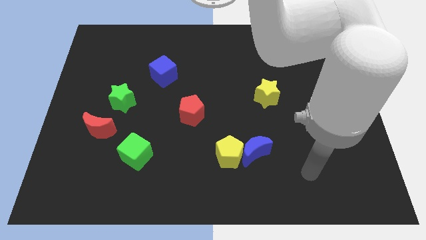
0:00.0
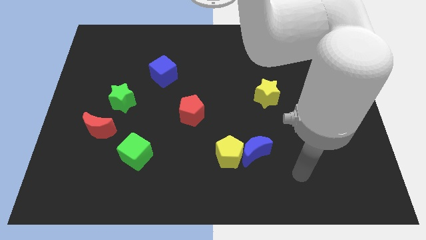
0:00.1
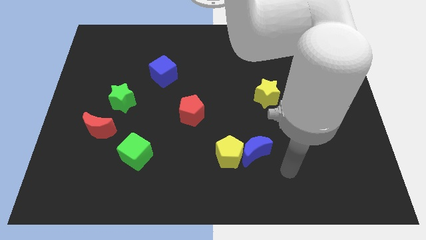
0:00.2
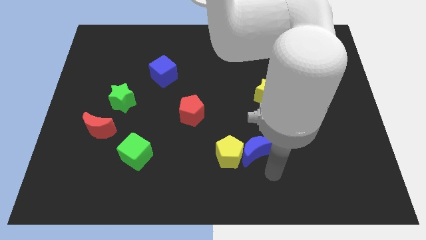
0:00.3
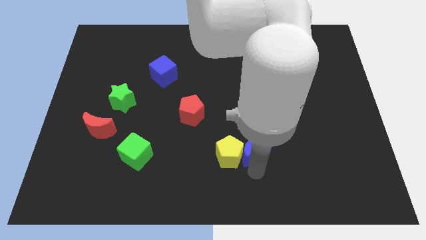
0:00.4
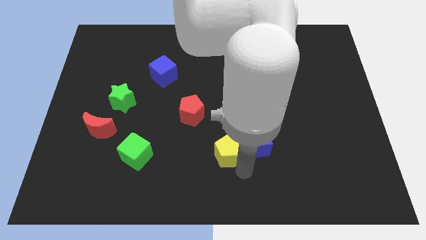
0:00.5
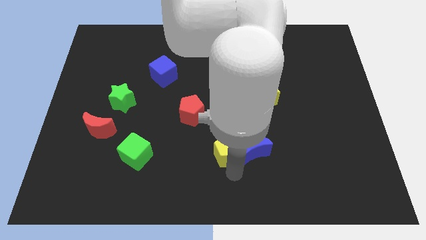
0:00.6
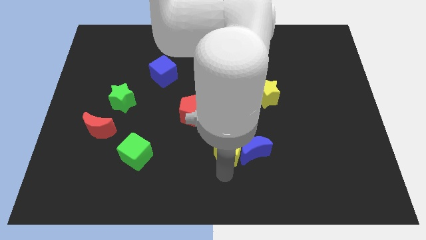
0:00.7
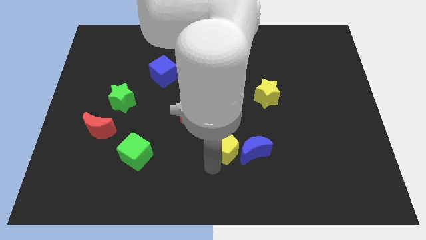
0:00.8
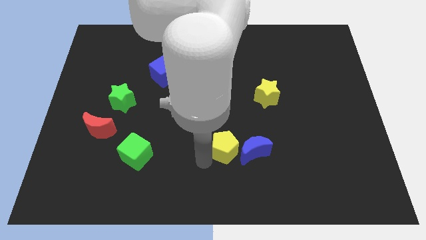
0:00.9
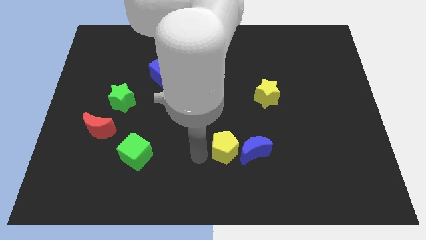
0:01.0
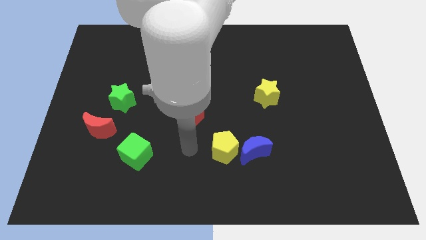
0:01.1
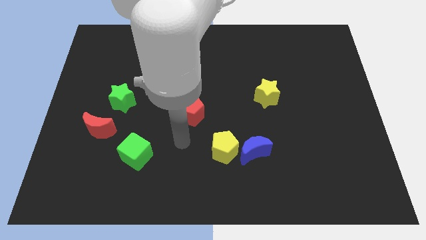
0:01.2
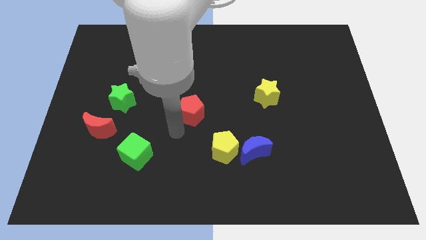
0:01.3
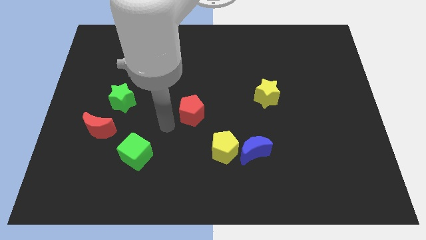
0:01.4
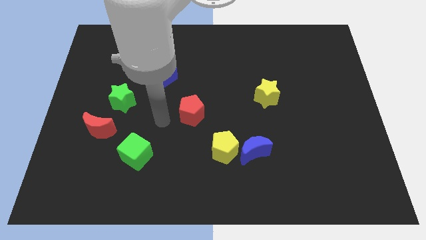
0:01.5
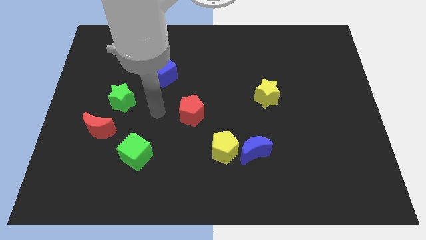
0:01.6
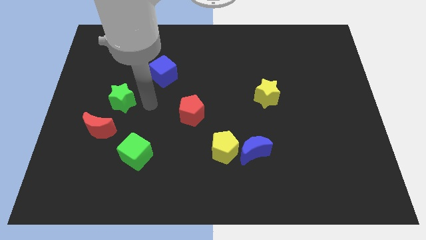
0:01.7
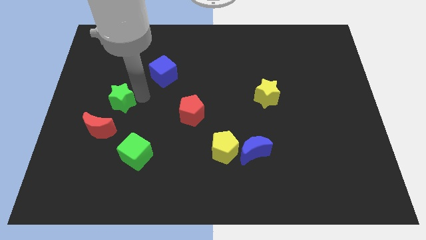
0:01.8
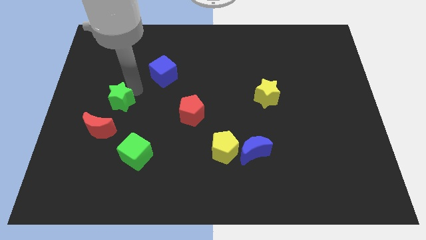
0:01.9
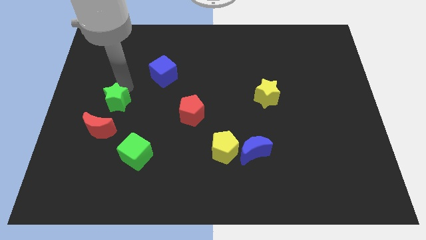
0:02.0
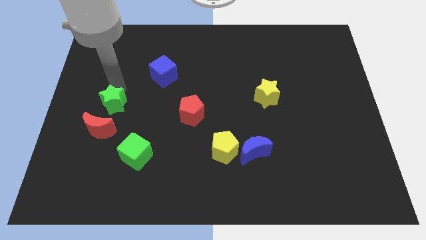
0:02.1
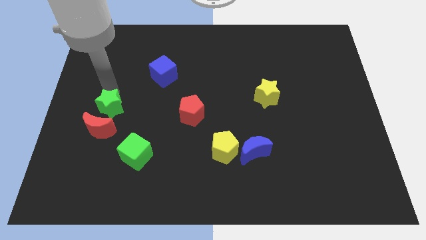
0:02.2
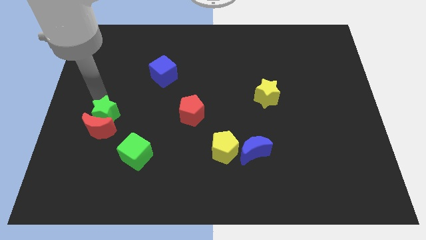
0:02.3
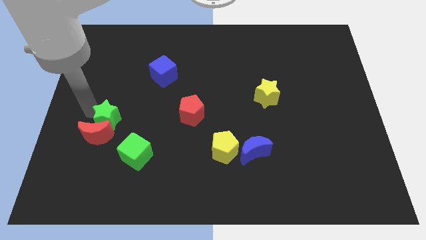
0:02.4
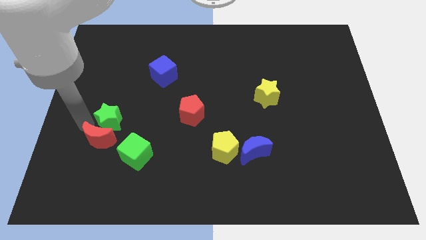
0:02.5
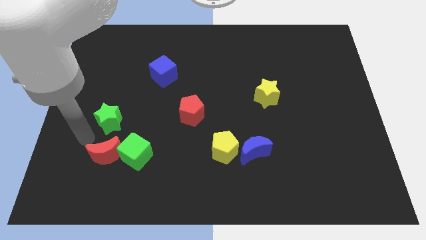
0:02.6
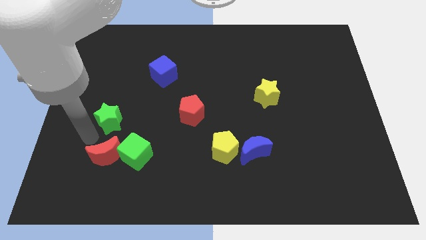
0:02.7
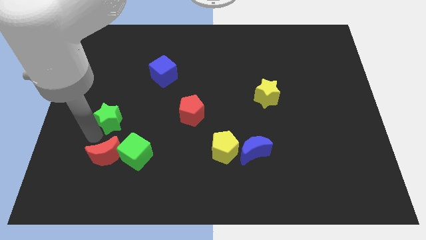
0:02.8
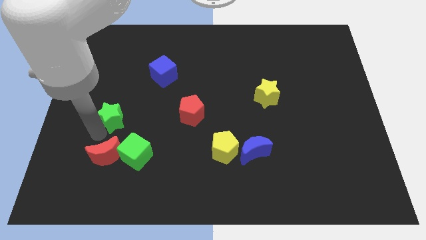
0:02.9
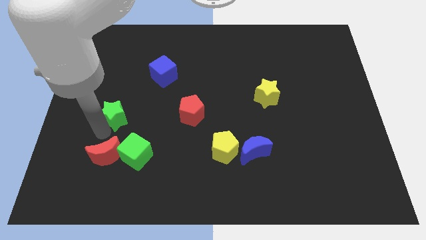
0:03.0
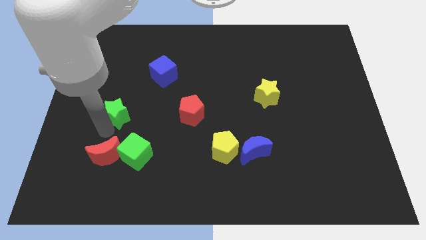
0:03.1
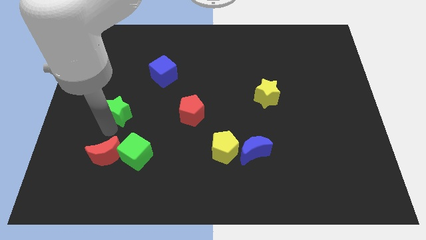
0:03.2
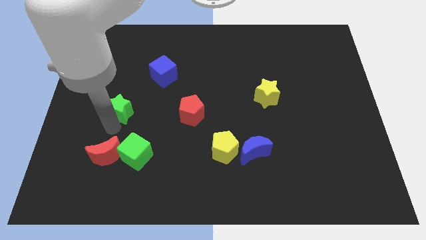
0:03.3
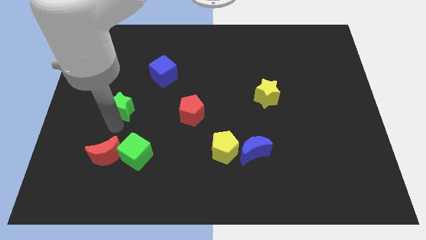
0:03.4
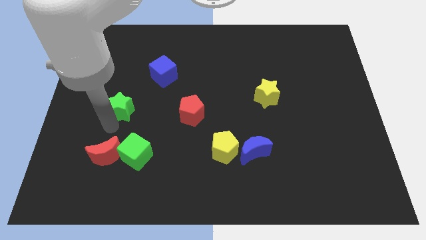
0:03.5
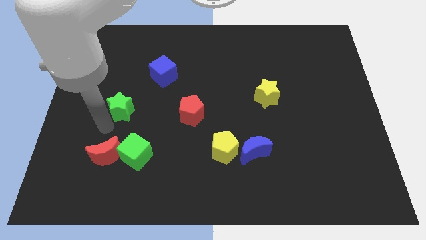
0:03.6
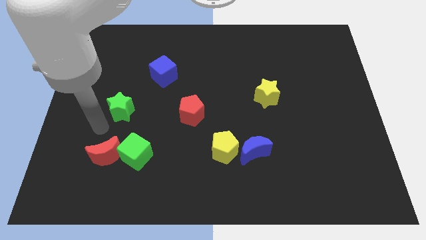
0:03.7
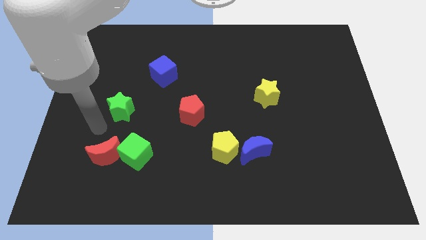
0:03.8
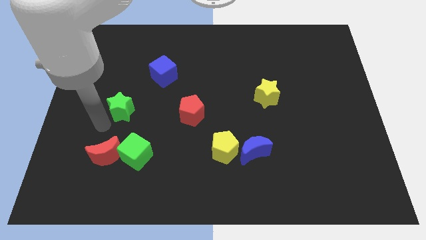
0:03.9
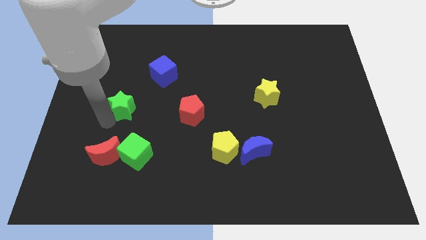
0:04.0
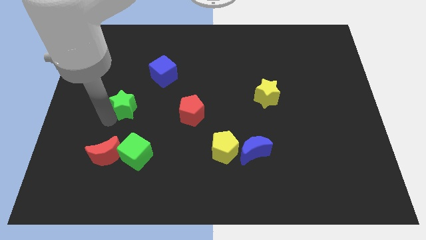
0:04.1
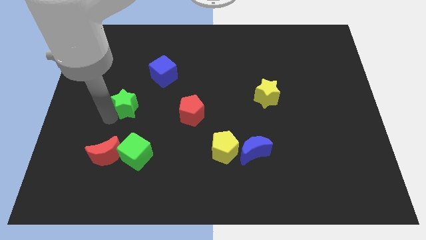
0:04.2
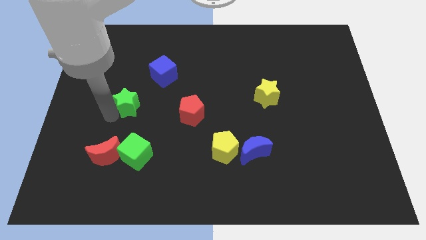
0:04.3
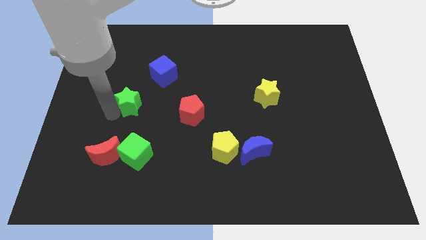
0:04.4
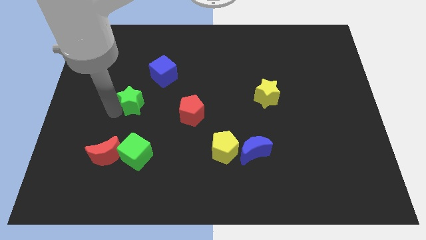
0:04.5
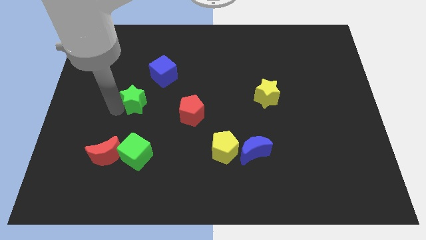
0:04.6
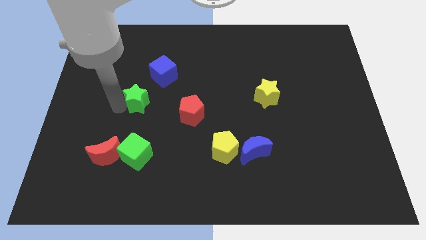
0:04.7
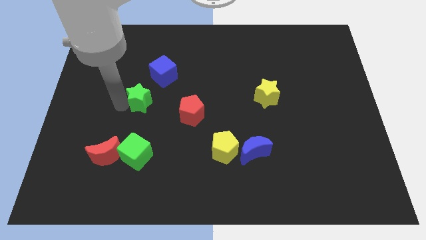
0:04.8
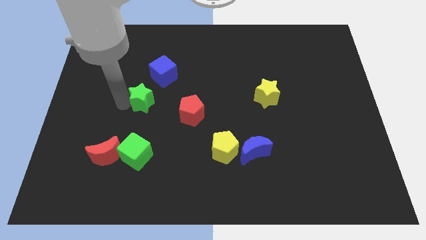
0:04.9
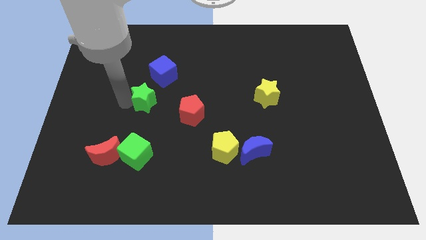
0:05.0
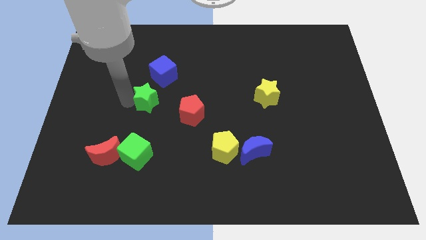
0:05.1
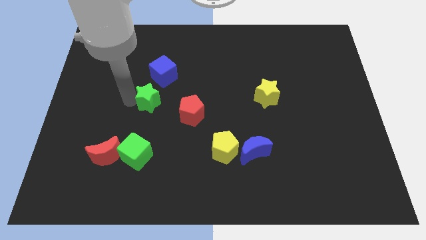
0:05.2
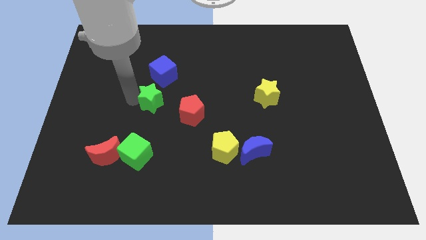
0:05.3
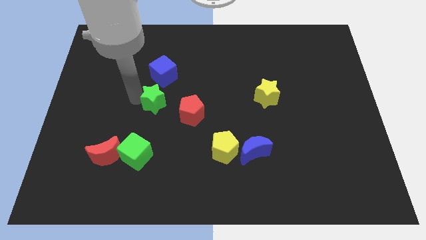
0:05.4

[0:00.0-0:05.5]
move the green star a little right

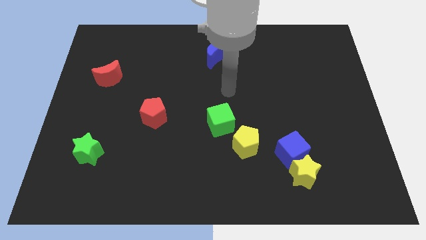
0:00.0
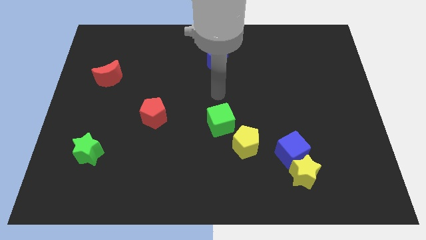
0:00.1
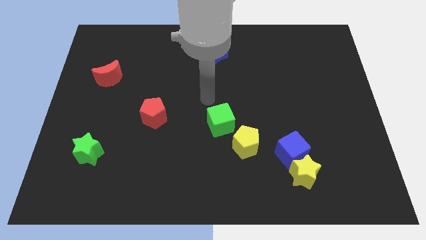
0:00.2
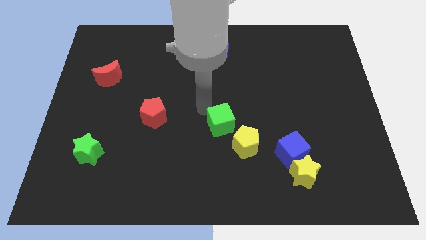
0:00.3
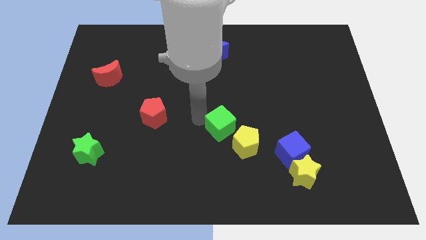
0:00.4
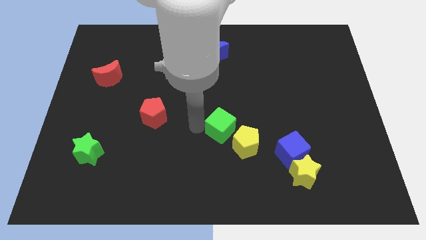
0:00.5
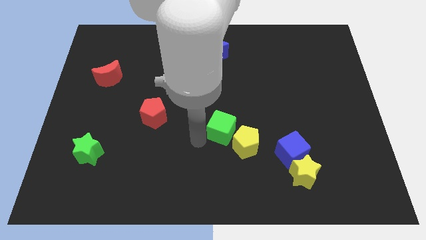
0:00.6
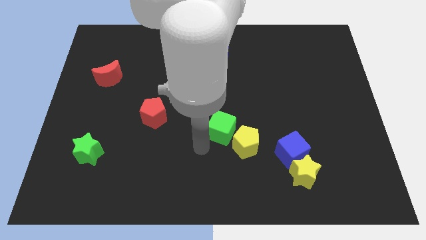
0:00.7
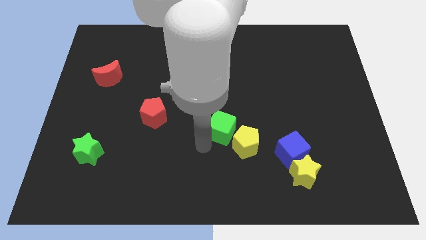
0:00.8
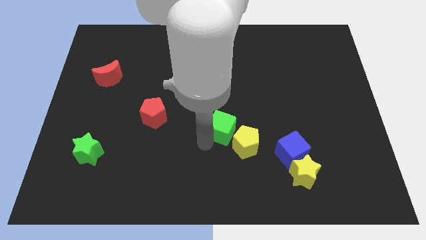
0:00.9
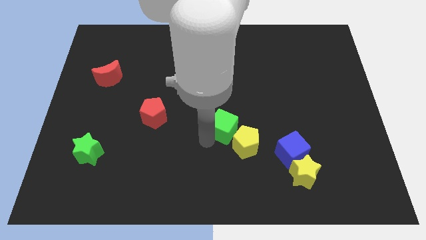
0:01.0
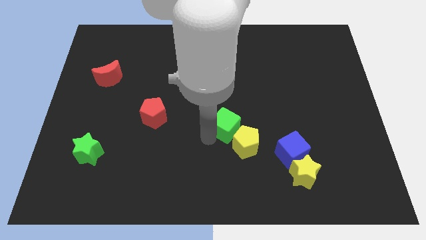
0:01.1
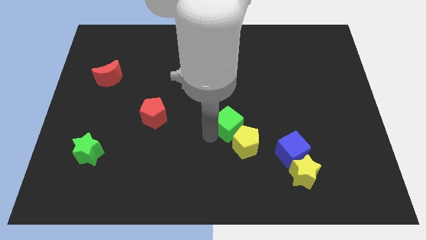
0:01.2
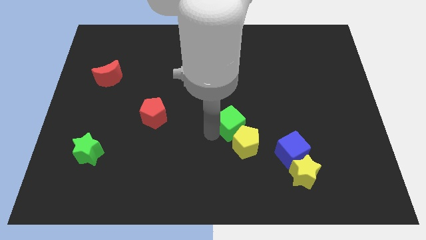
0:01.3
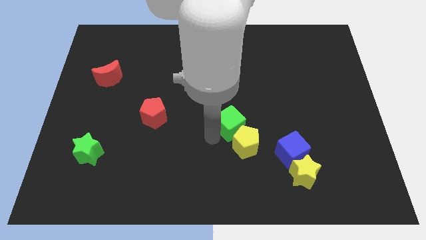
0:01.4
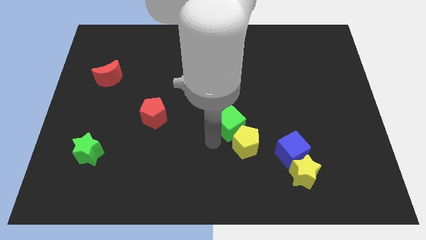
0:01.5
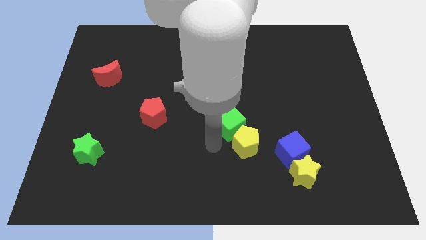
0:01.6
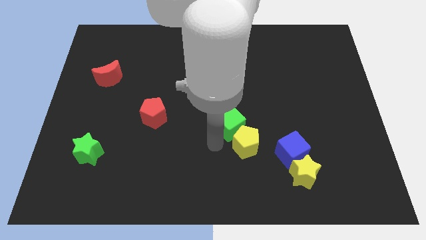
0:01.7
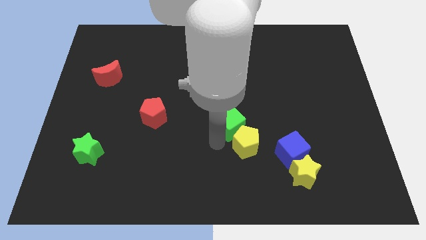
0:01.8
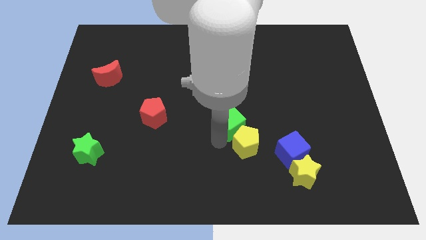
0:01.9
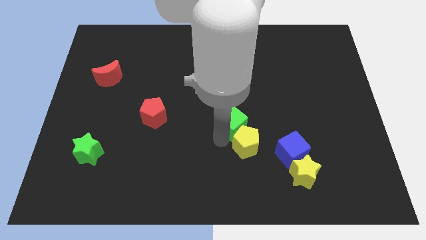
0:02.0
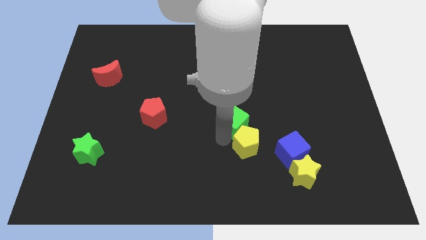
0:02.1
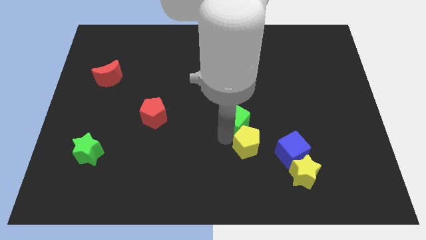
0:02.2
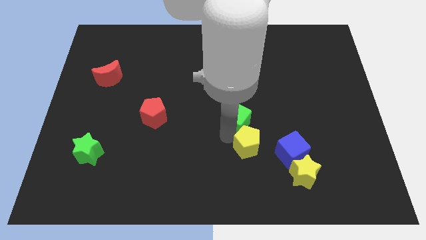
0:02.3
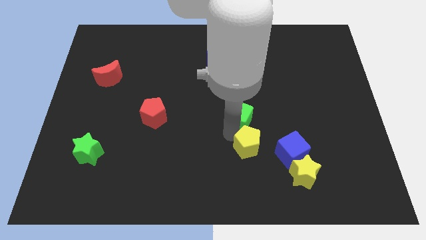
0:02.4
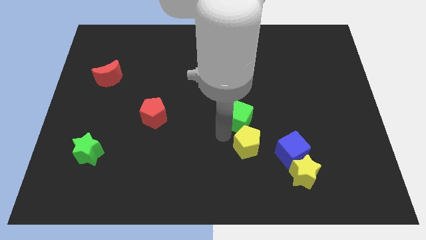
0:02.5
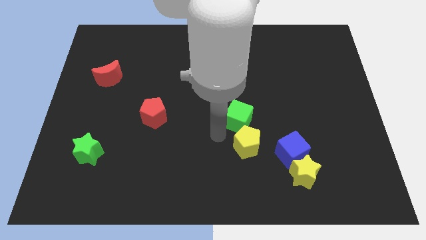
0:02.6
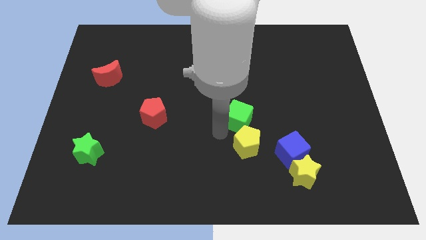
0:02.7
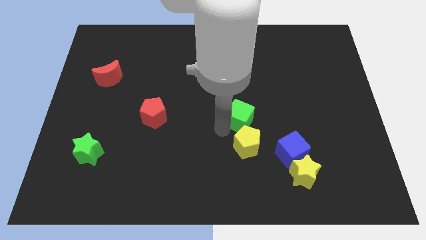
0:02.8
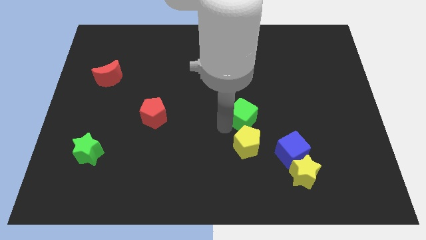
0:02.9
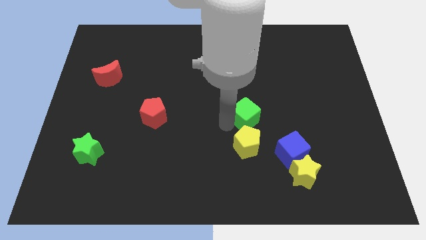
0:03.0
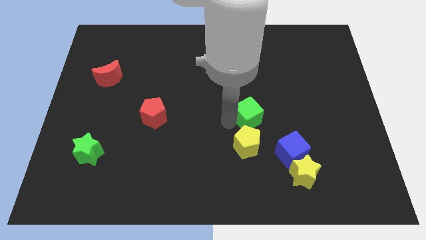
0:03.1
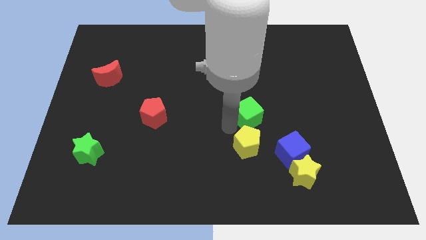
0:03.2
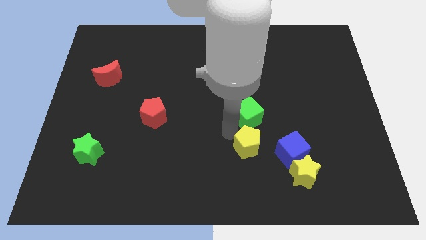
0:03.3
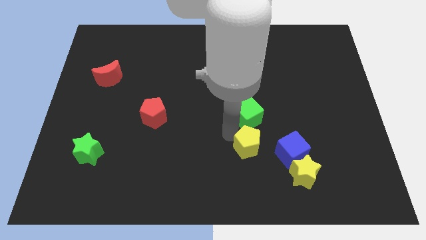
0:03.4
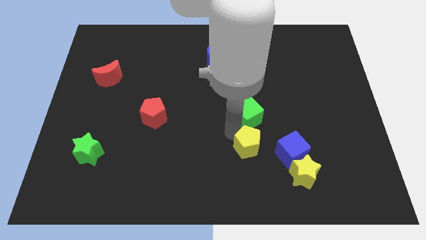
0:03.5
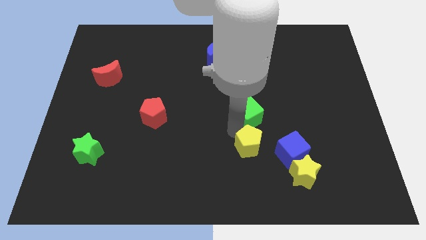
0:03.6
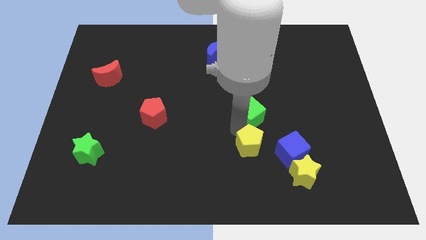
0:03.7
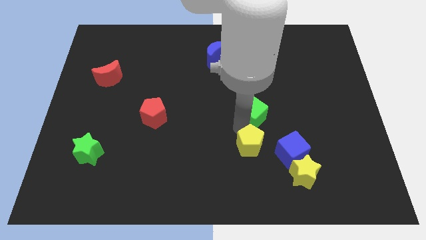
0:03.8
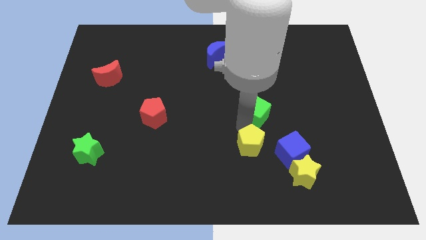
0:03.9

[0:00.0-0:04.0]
slide the green cube a little bit upwards and right diagonally
